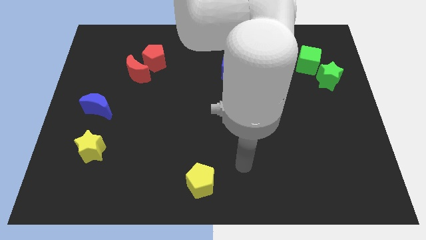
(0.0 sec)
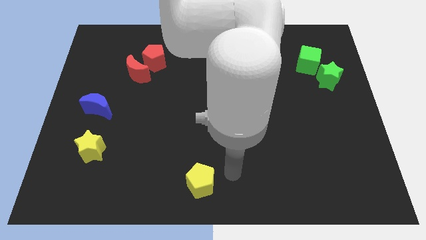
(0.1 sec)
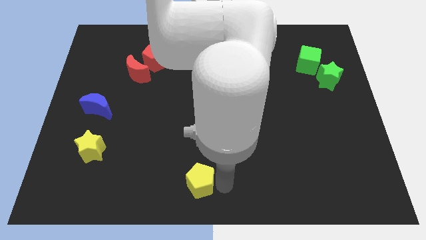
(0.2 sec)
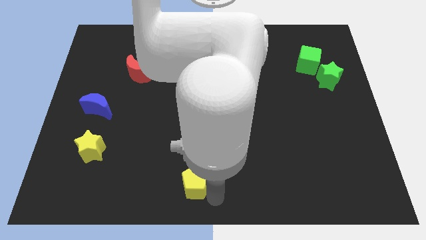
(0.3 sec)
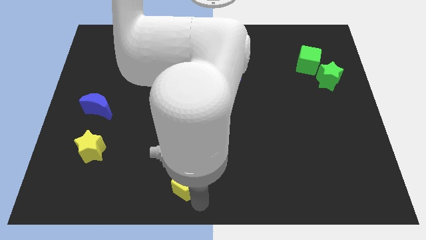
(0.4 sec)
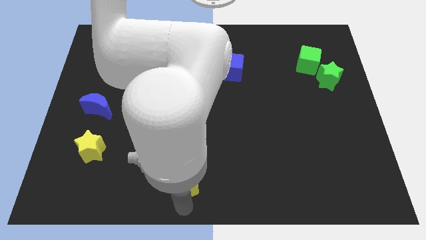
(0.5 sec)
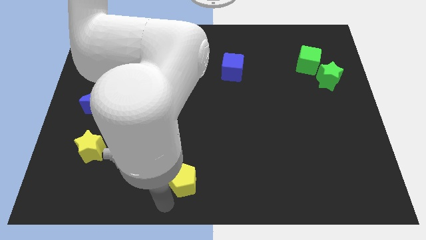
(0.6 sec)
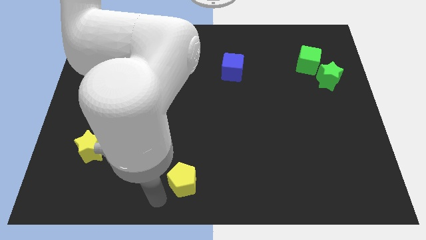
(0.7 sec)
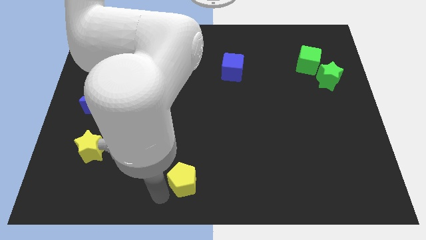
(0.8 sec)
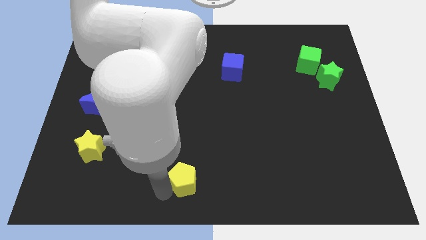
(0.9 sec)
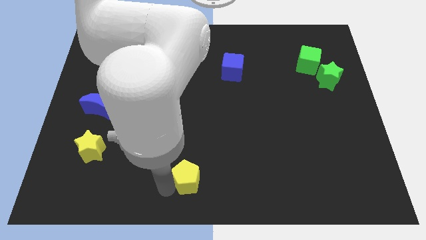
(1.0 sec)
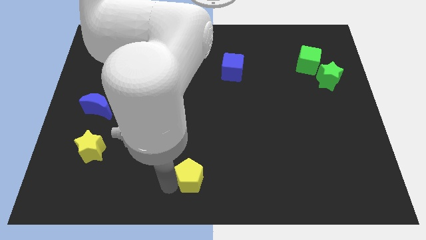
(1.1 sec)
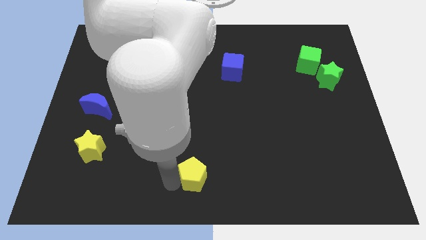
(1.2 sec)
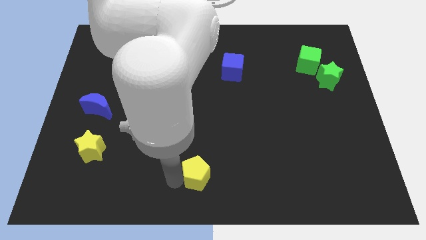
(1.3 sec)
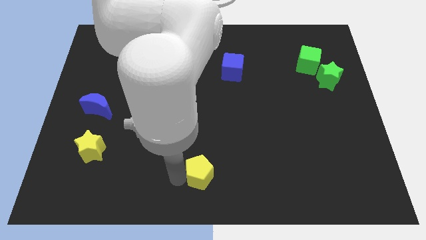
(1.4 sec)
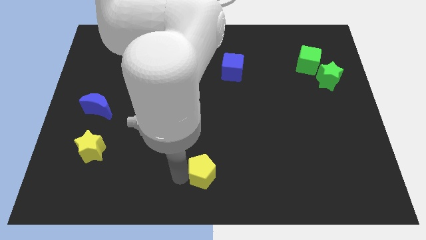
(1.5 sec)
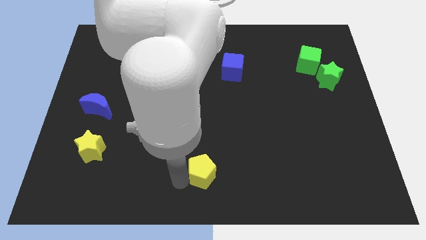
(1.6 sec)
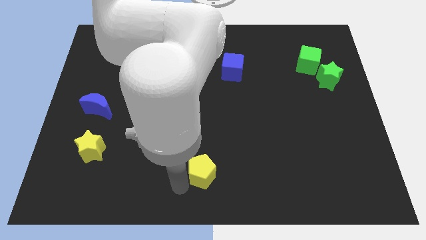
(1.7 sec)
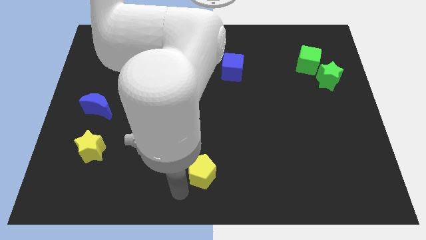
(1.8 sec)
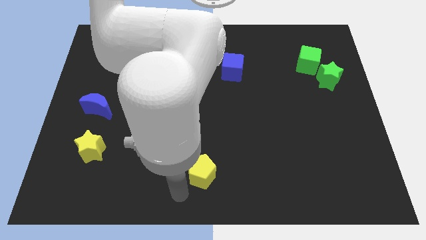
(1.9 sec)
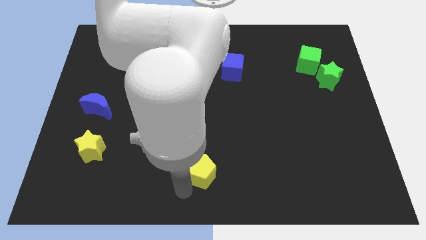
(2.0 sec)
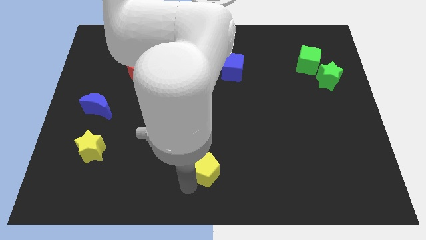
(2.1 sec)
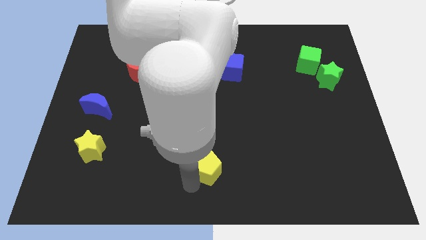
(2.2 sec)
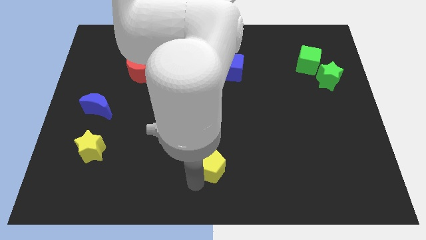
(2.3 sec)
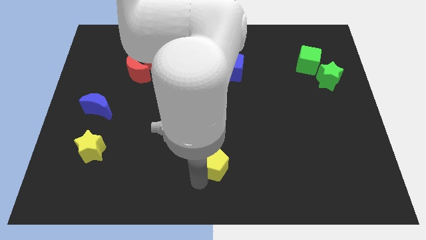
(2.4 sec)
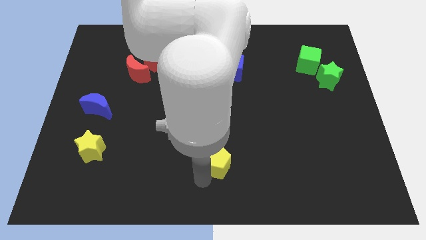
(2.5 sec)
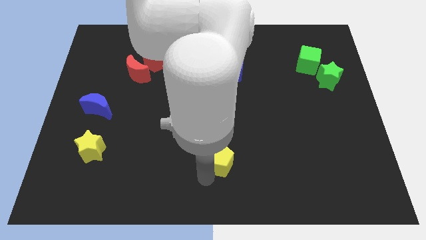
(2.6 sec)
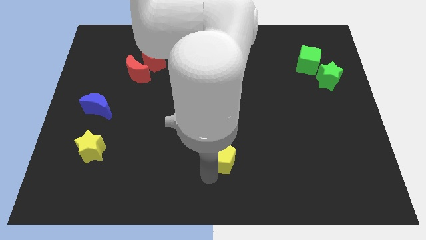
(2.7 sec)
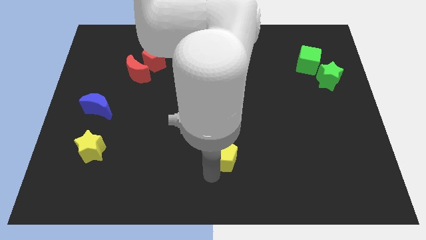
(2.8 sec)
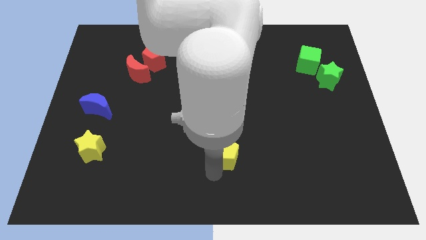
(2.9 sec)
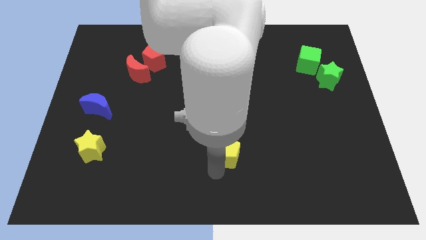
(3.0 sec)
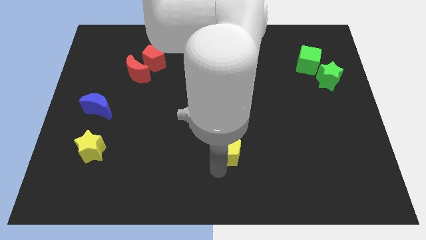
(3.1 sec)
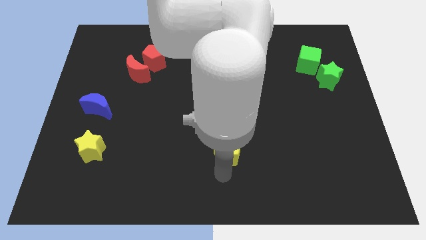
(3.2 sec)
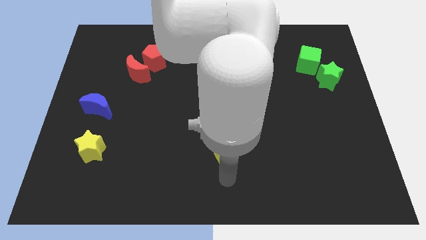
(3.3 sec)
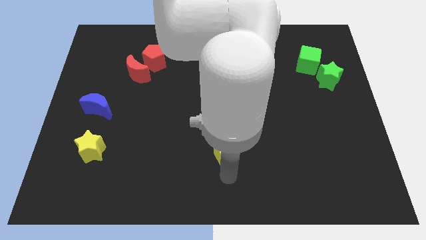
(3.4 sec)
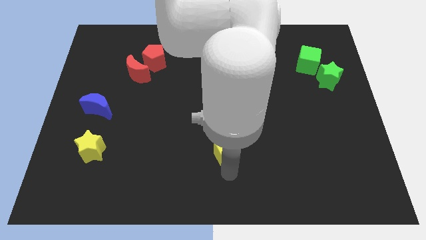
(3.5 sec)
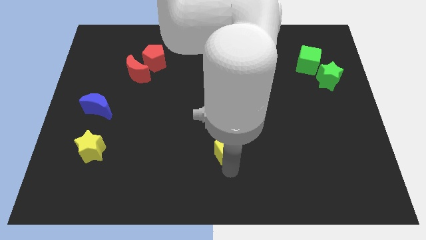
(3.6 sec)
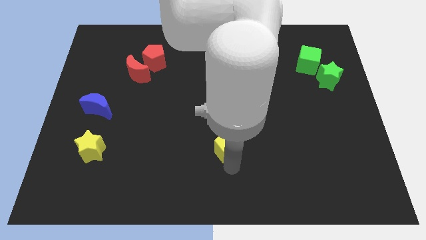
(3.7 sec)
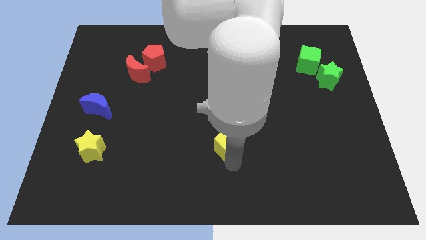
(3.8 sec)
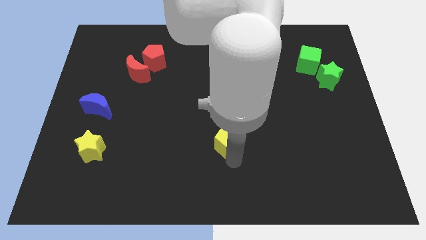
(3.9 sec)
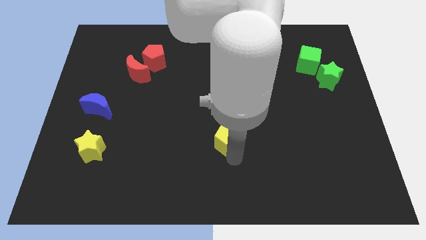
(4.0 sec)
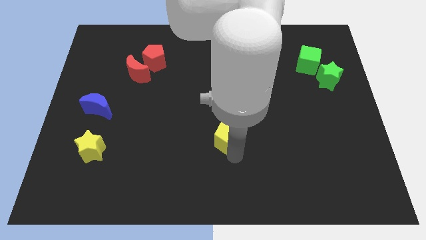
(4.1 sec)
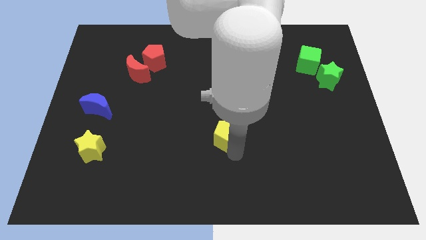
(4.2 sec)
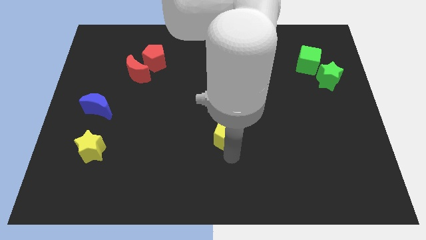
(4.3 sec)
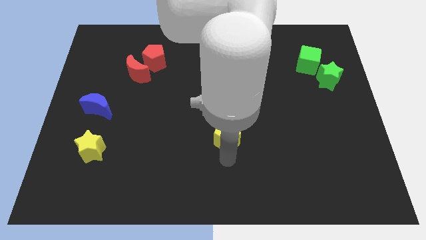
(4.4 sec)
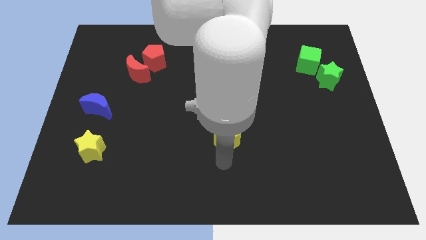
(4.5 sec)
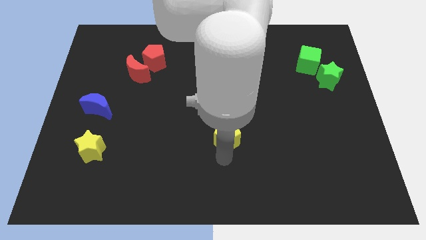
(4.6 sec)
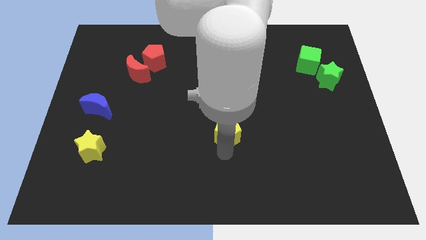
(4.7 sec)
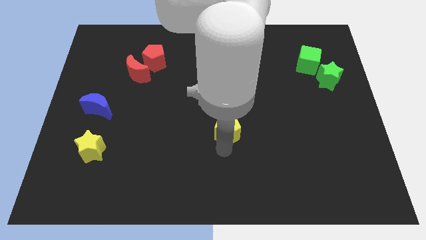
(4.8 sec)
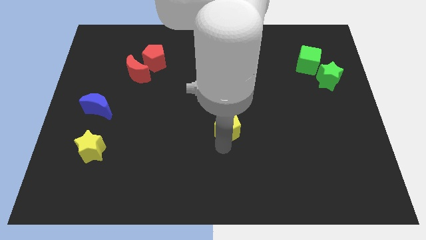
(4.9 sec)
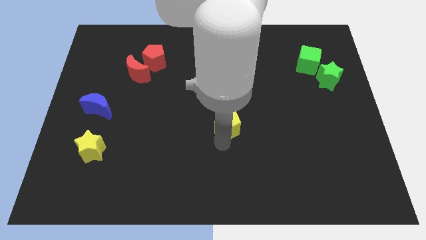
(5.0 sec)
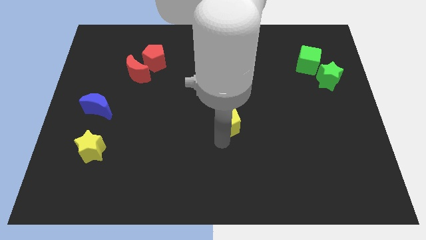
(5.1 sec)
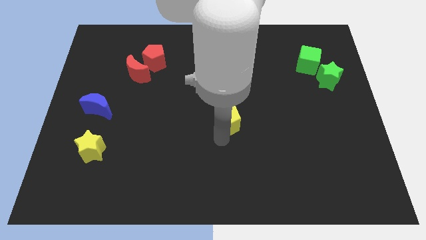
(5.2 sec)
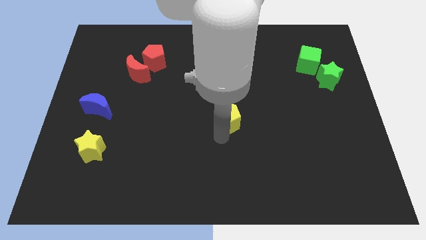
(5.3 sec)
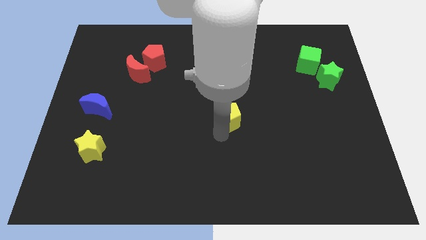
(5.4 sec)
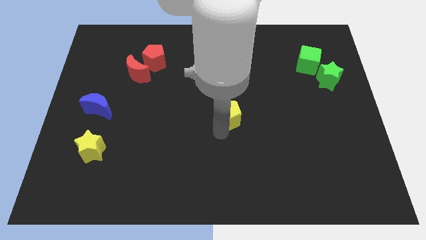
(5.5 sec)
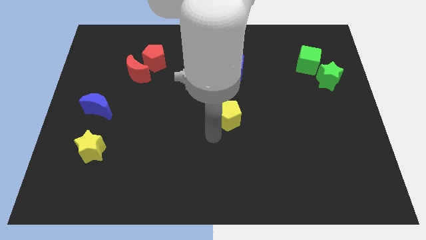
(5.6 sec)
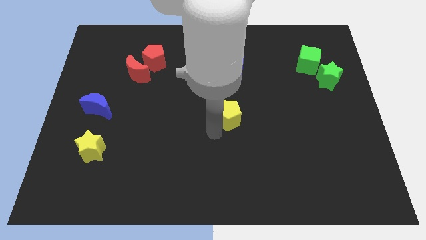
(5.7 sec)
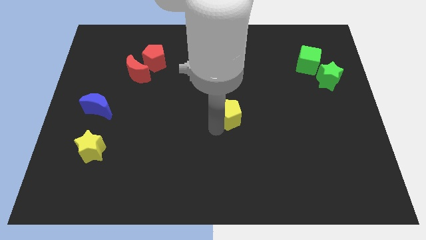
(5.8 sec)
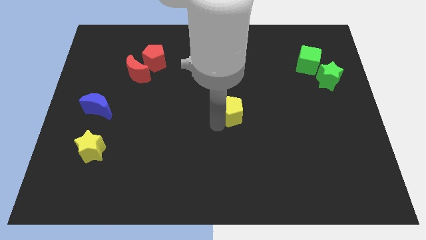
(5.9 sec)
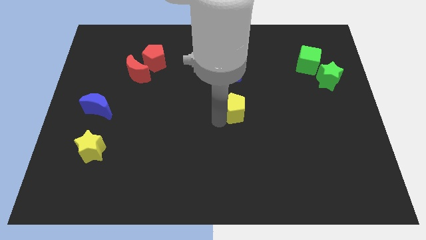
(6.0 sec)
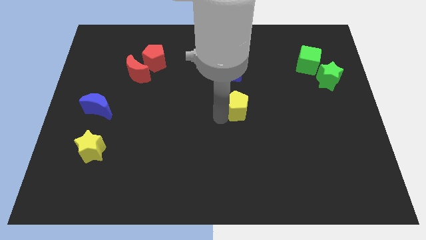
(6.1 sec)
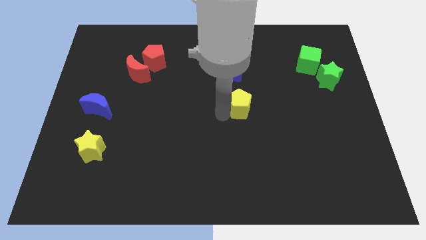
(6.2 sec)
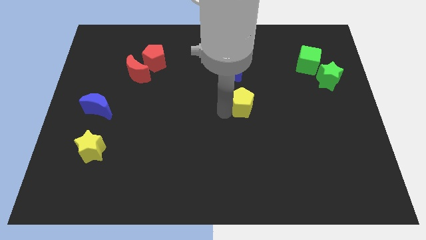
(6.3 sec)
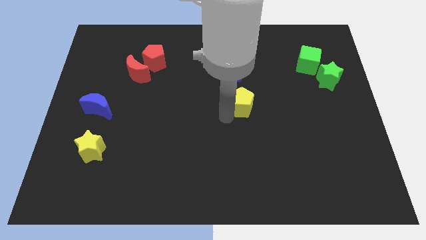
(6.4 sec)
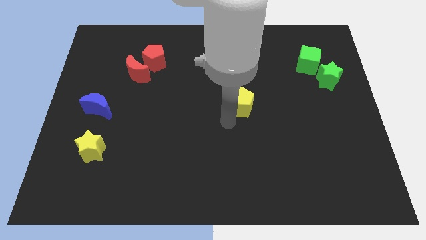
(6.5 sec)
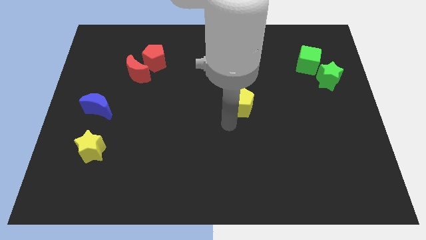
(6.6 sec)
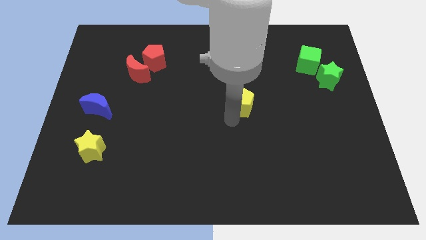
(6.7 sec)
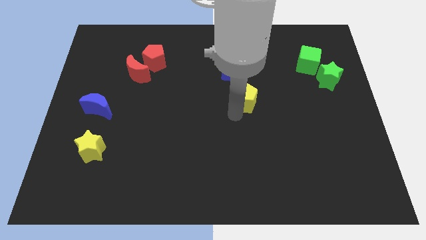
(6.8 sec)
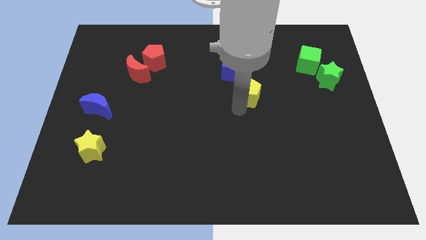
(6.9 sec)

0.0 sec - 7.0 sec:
move the yellow pentagon to the bottom right side of the blue cube
